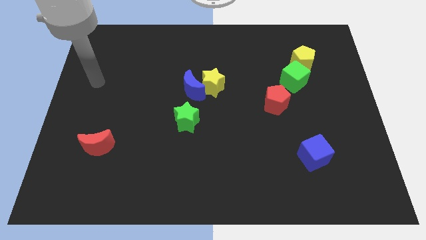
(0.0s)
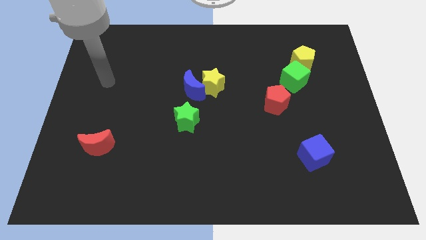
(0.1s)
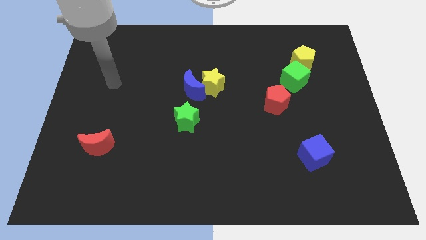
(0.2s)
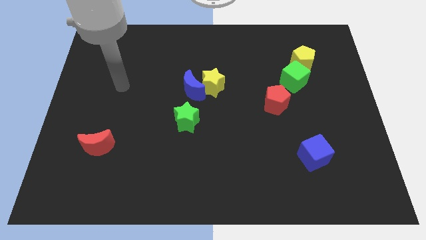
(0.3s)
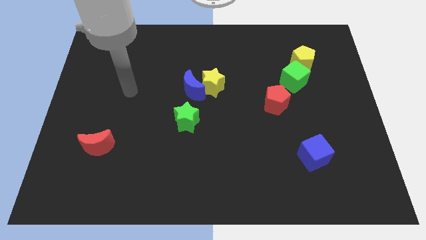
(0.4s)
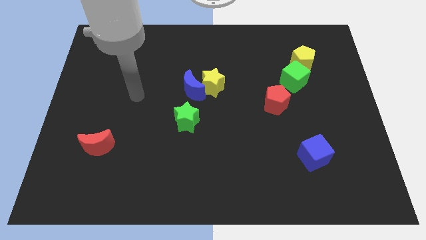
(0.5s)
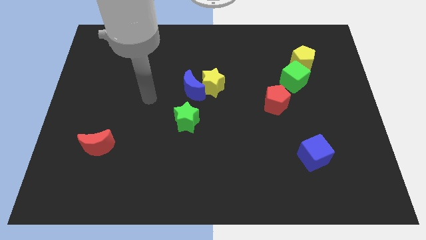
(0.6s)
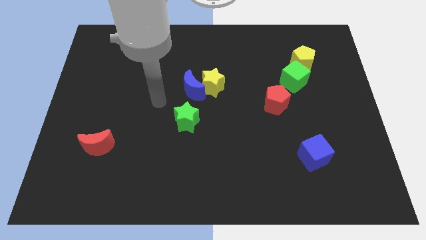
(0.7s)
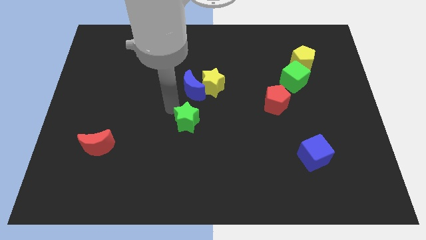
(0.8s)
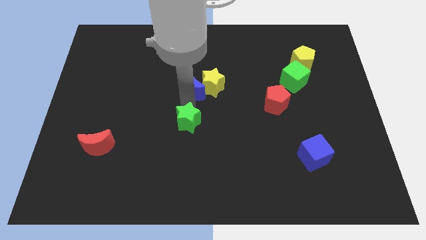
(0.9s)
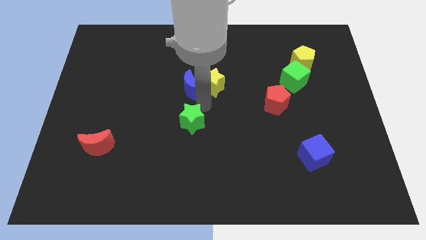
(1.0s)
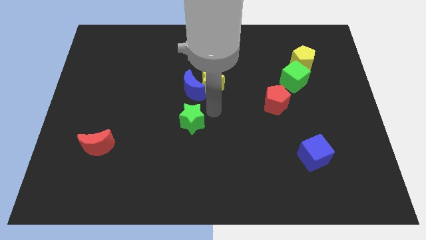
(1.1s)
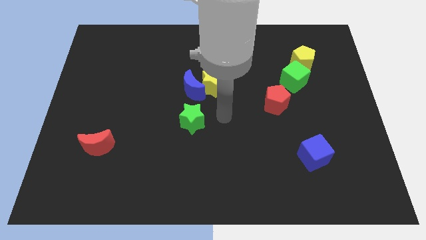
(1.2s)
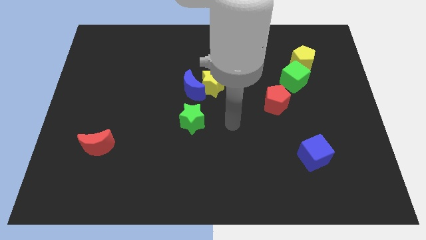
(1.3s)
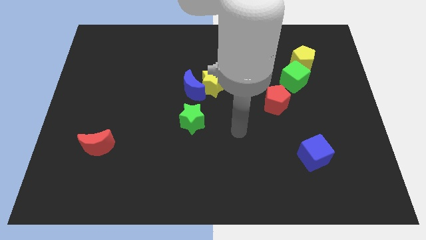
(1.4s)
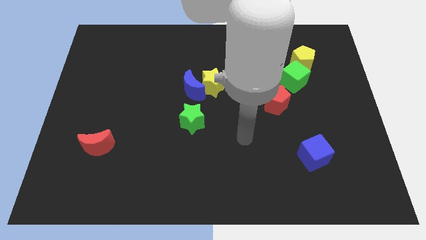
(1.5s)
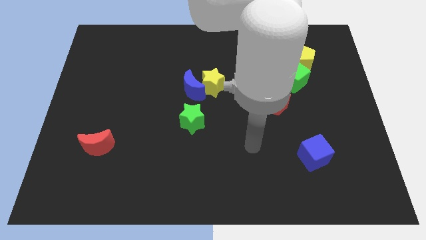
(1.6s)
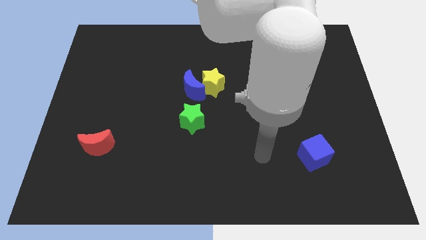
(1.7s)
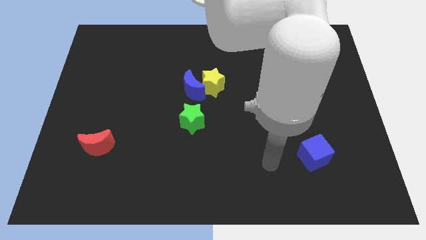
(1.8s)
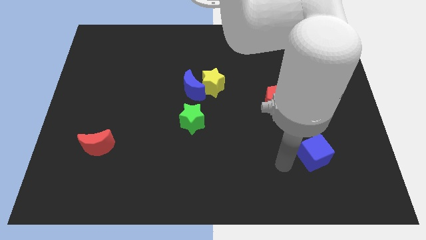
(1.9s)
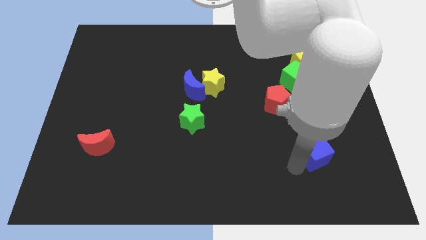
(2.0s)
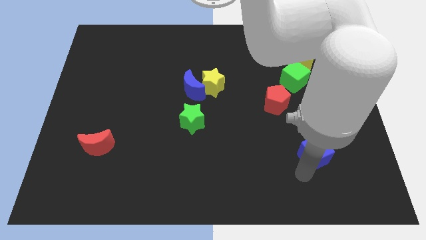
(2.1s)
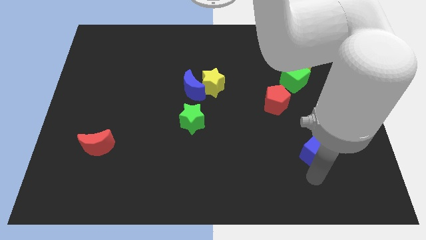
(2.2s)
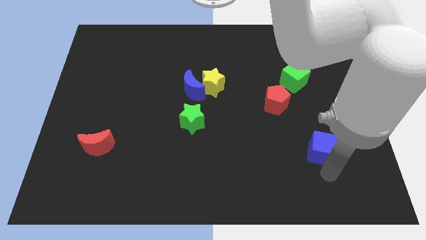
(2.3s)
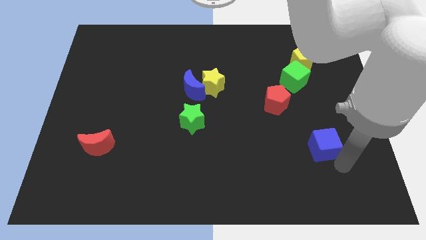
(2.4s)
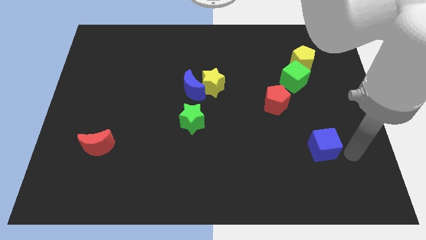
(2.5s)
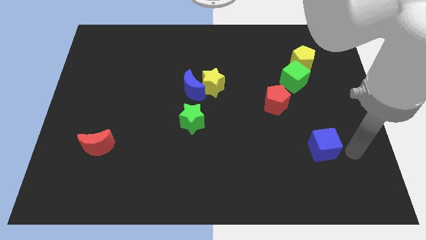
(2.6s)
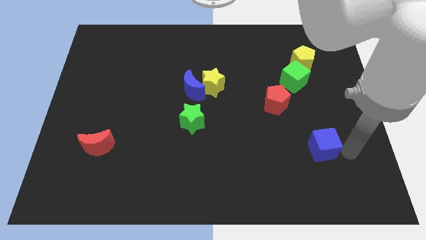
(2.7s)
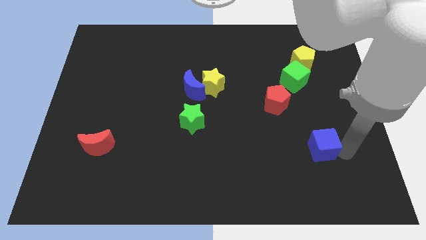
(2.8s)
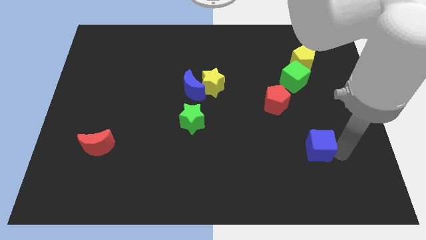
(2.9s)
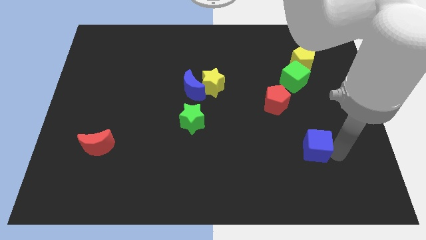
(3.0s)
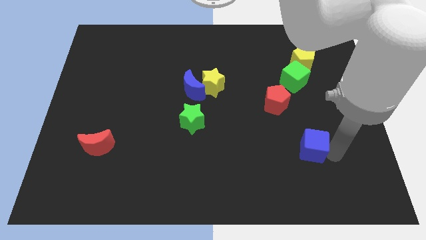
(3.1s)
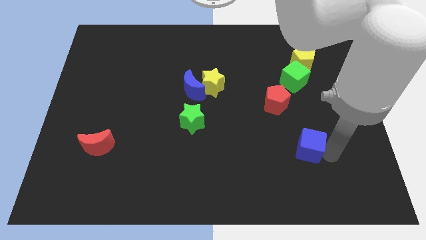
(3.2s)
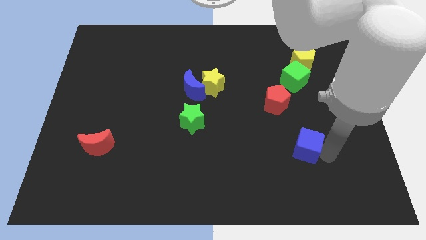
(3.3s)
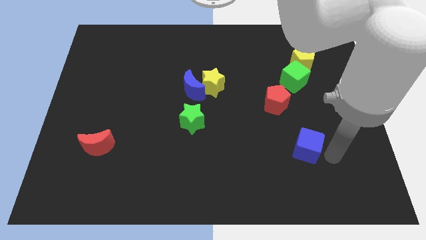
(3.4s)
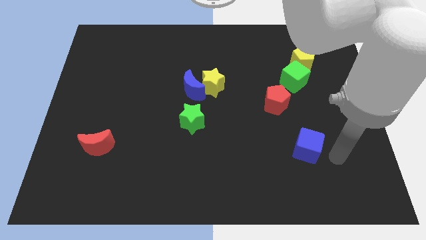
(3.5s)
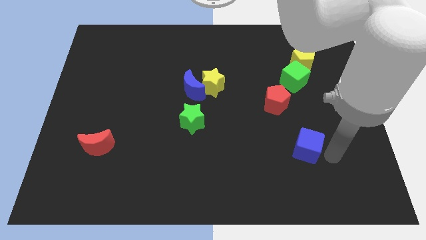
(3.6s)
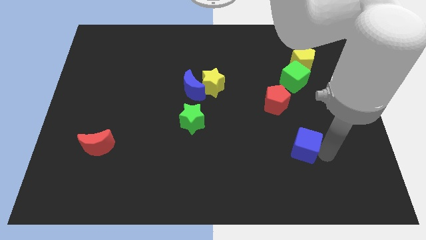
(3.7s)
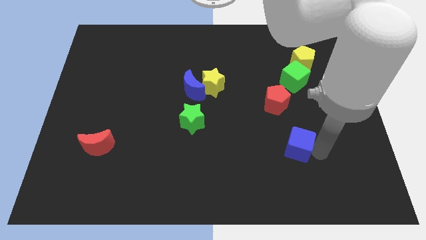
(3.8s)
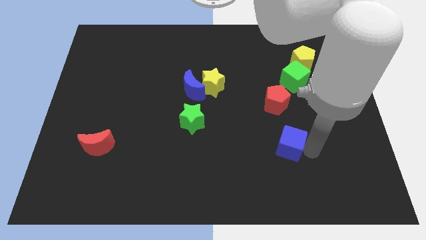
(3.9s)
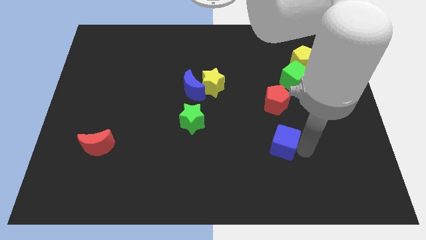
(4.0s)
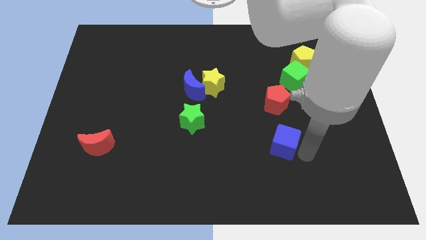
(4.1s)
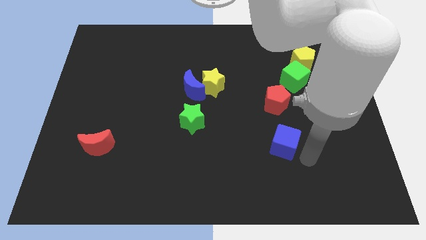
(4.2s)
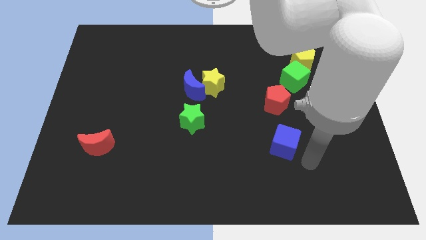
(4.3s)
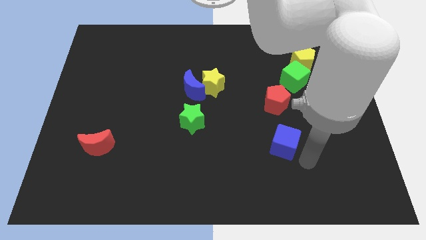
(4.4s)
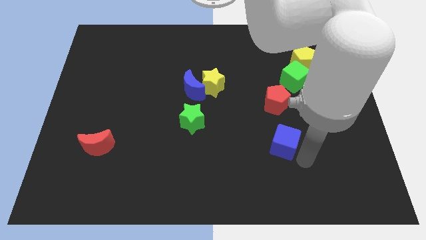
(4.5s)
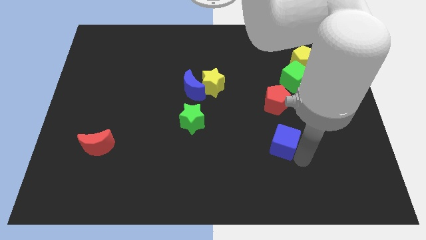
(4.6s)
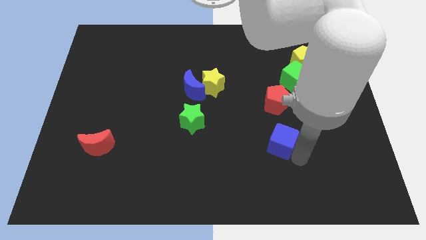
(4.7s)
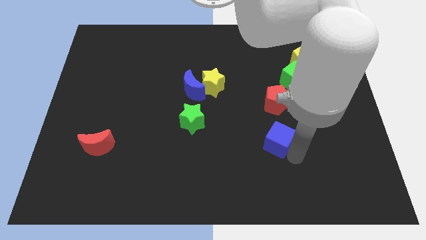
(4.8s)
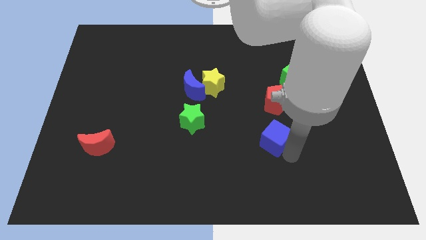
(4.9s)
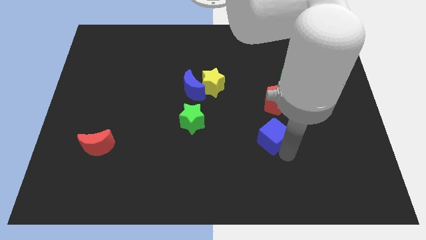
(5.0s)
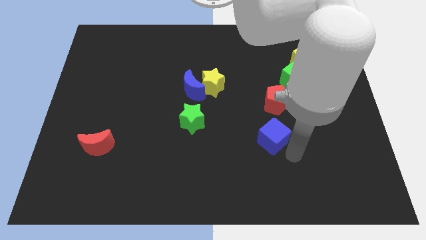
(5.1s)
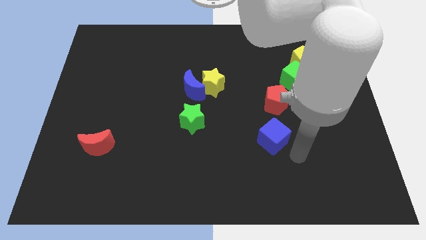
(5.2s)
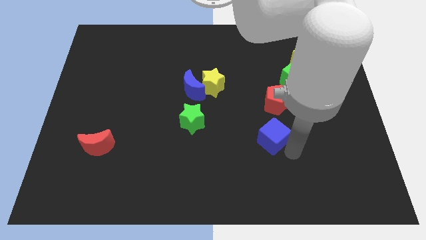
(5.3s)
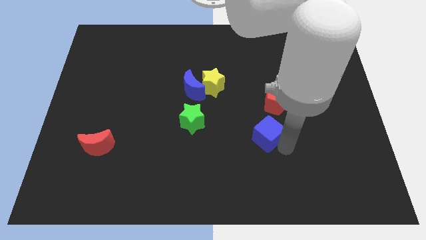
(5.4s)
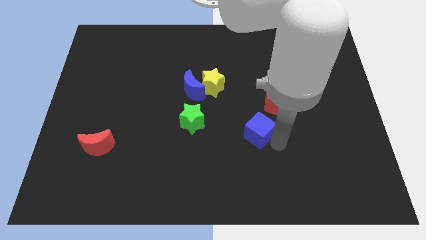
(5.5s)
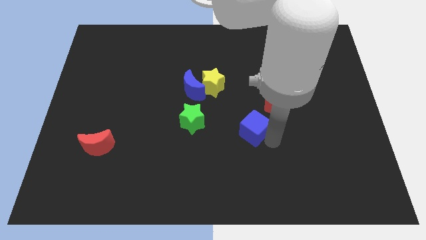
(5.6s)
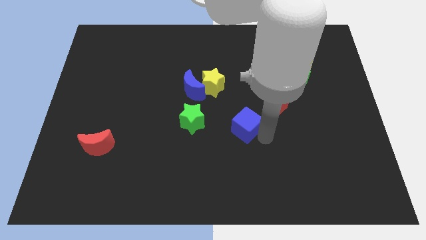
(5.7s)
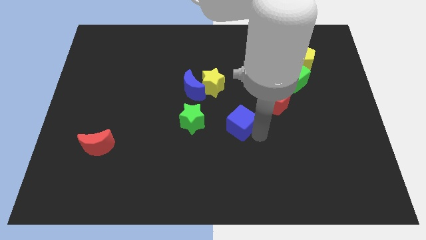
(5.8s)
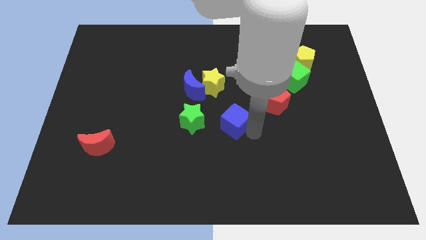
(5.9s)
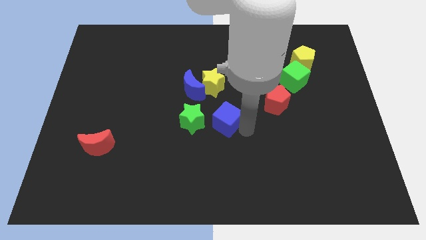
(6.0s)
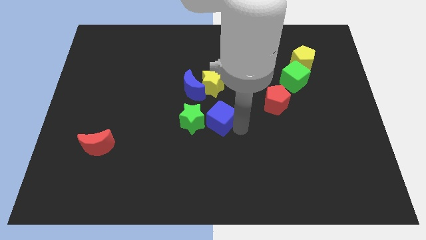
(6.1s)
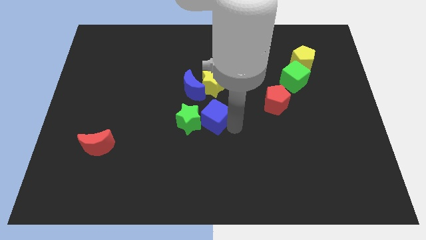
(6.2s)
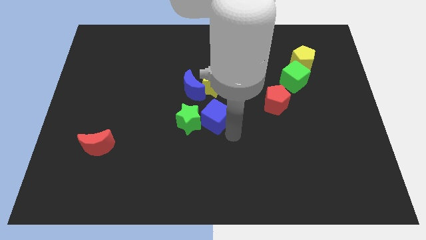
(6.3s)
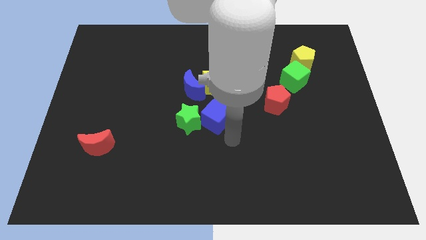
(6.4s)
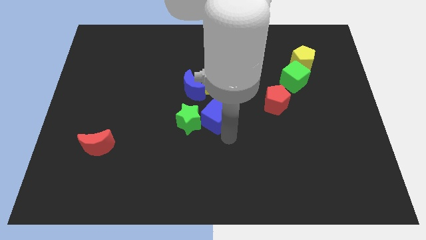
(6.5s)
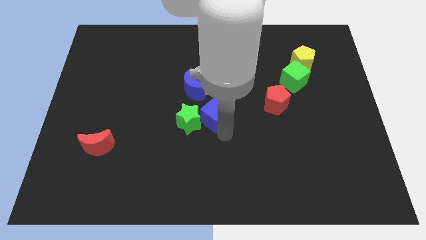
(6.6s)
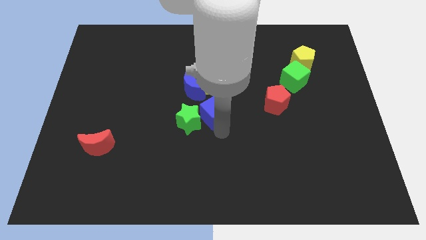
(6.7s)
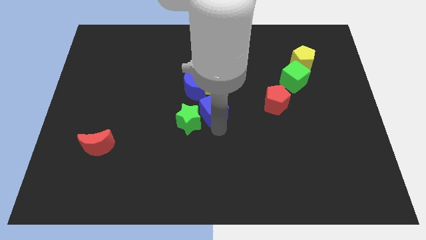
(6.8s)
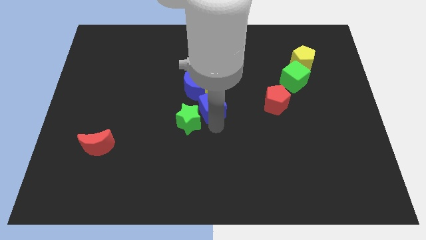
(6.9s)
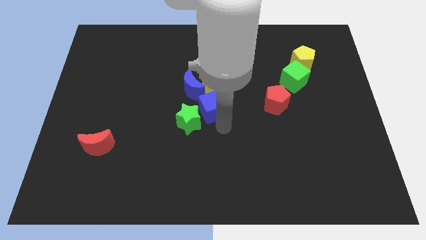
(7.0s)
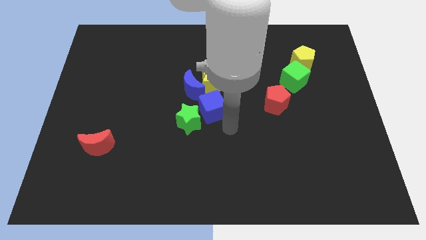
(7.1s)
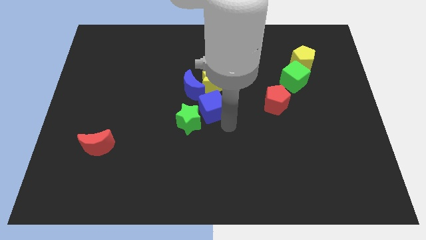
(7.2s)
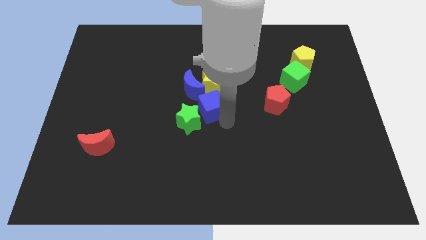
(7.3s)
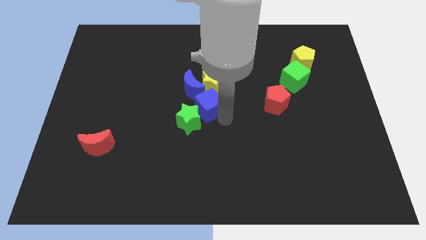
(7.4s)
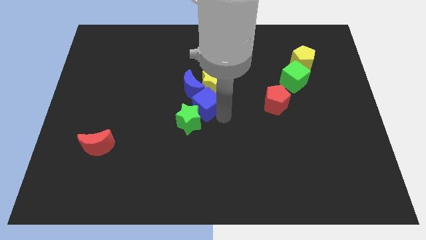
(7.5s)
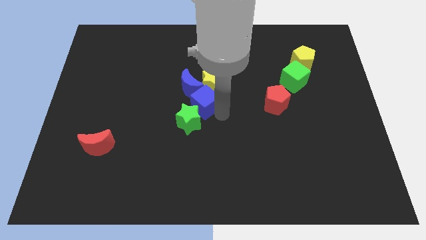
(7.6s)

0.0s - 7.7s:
slide the blue cube next to the blue moon
